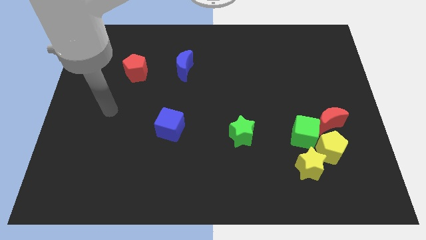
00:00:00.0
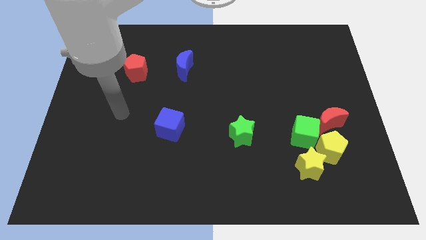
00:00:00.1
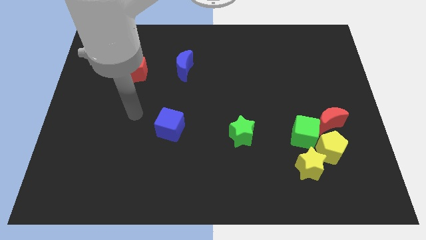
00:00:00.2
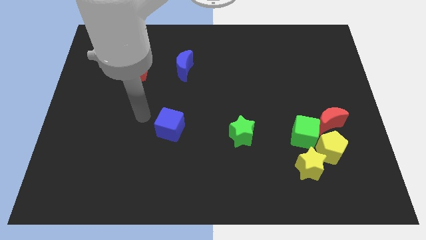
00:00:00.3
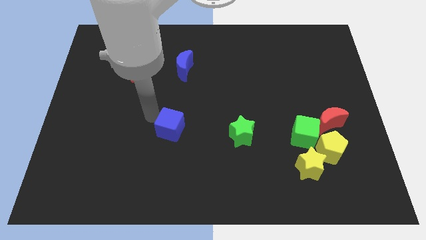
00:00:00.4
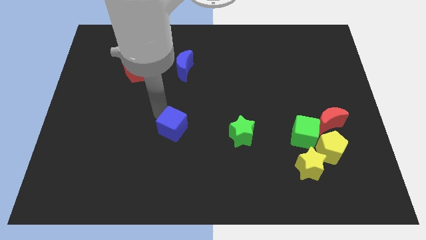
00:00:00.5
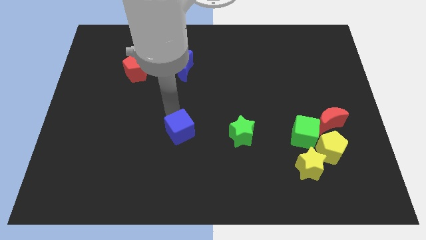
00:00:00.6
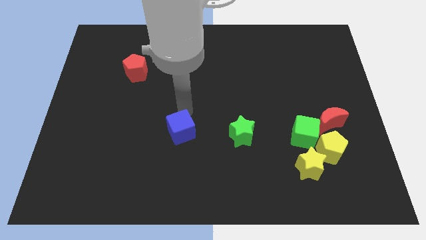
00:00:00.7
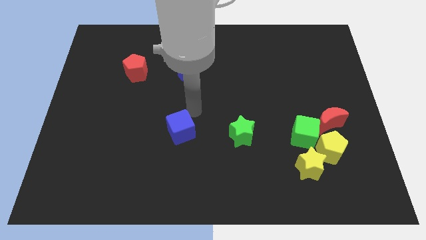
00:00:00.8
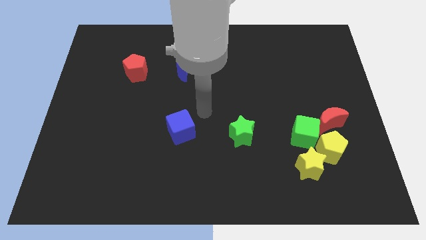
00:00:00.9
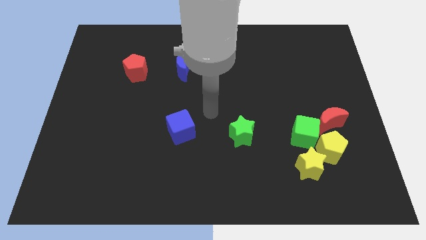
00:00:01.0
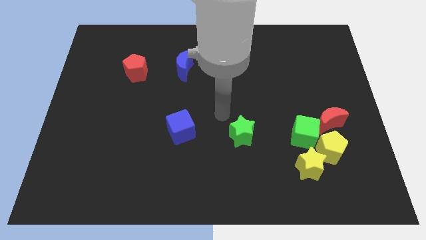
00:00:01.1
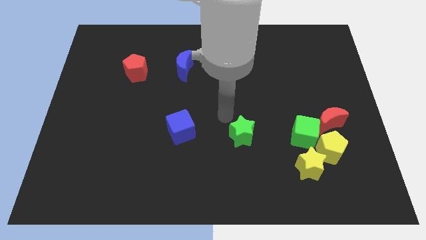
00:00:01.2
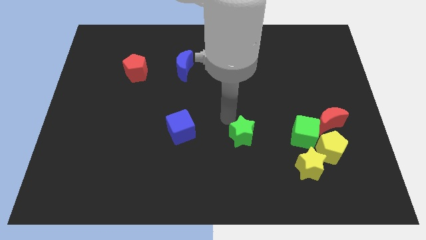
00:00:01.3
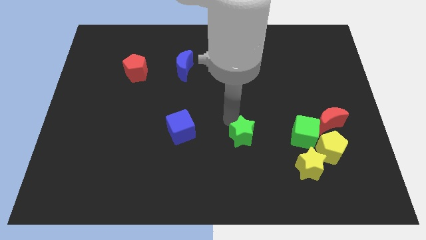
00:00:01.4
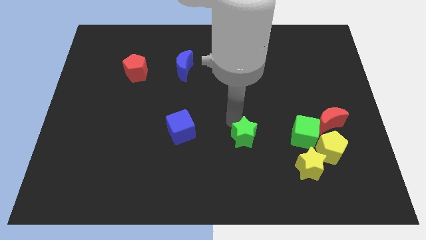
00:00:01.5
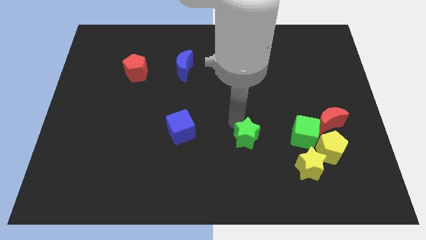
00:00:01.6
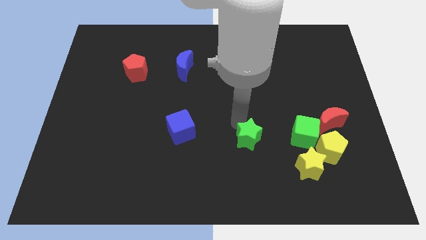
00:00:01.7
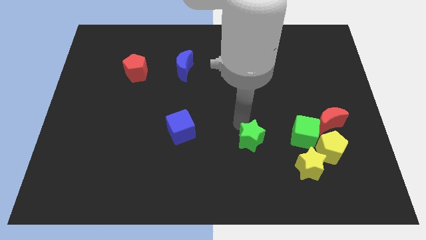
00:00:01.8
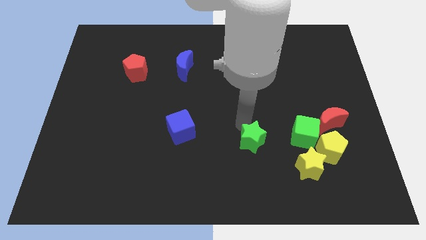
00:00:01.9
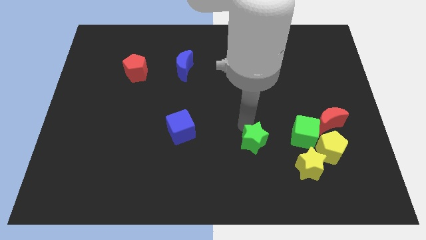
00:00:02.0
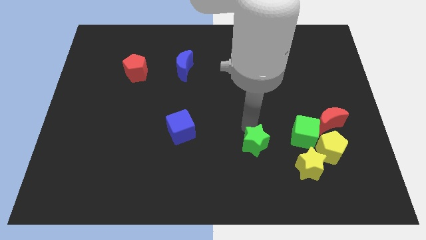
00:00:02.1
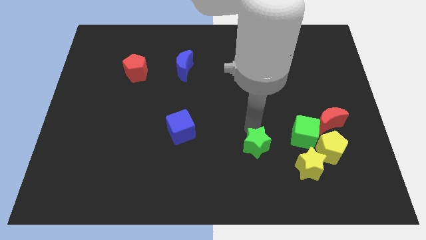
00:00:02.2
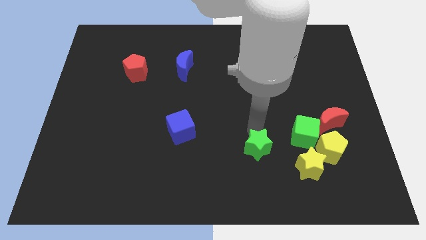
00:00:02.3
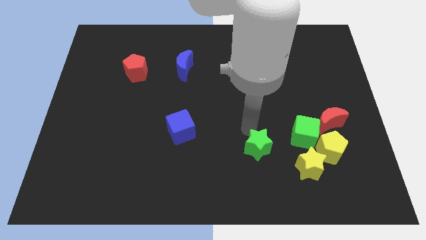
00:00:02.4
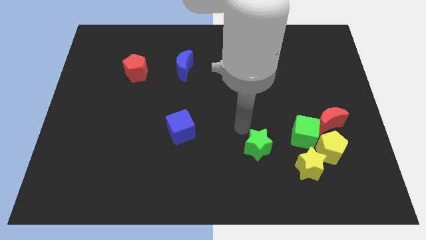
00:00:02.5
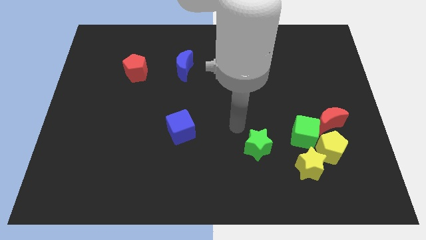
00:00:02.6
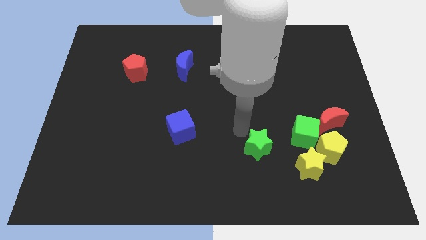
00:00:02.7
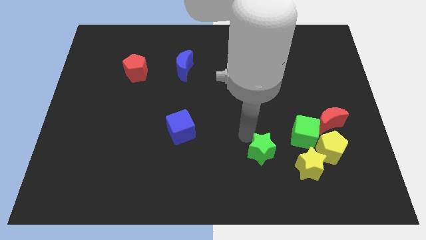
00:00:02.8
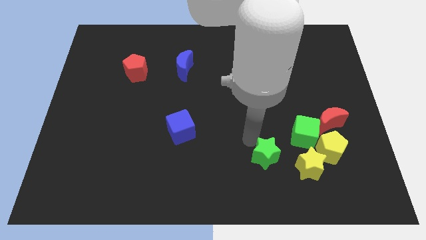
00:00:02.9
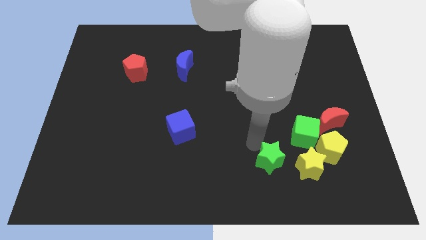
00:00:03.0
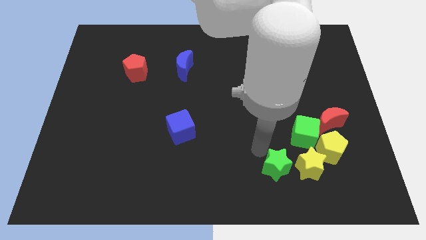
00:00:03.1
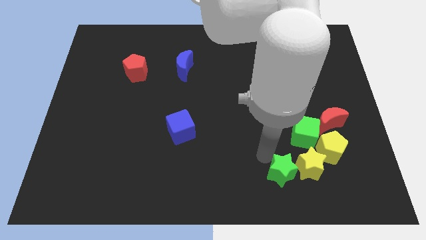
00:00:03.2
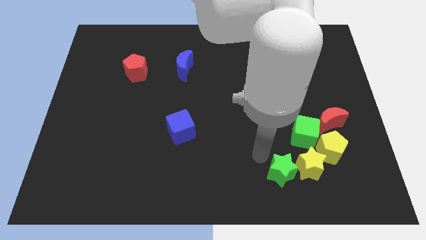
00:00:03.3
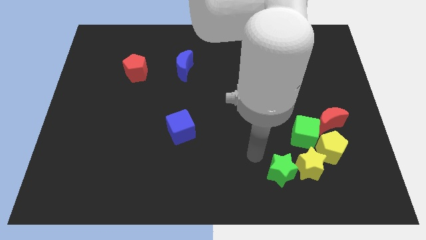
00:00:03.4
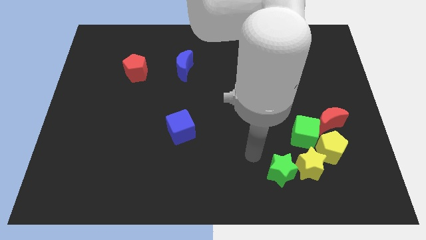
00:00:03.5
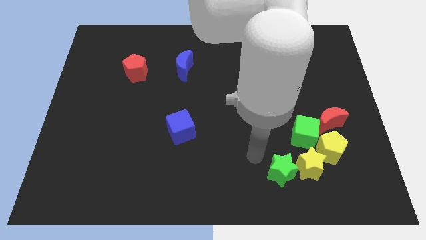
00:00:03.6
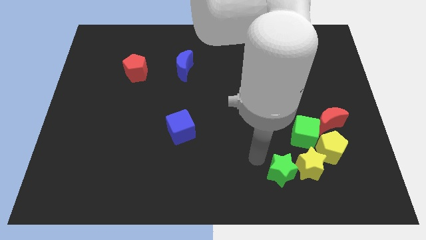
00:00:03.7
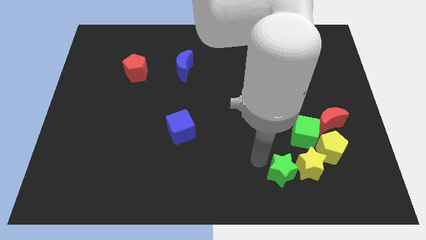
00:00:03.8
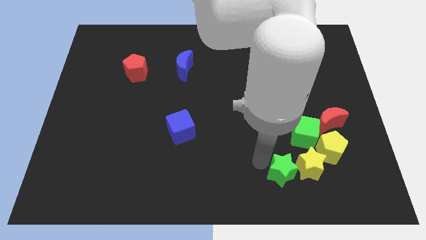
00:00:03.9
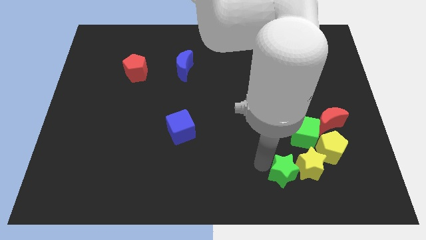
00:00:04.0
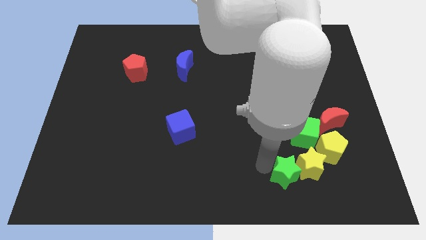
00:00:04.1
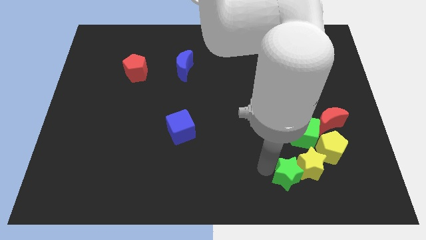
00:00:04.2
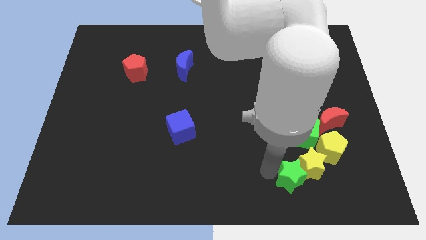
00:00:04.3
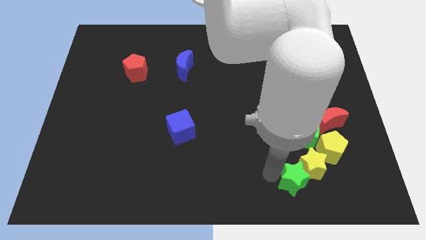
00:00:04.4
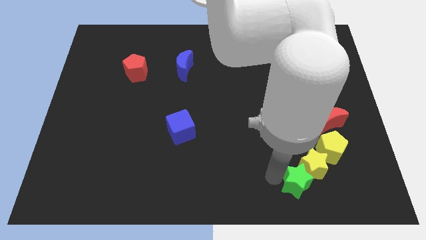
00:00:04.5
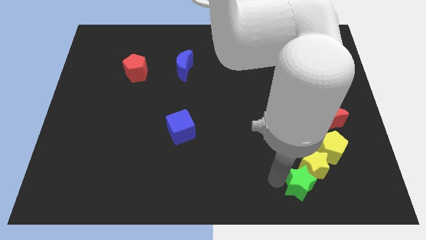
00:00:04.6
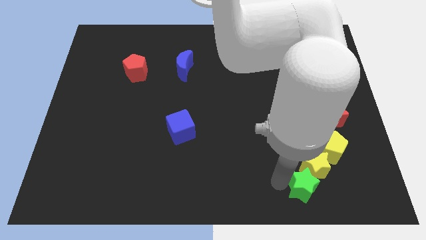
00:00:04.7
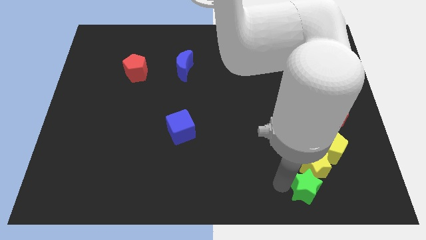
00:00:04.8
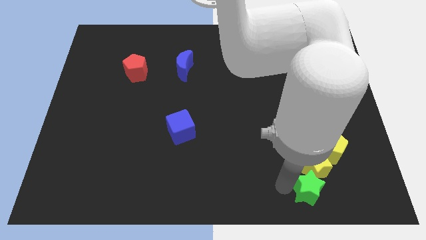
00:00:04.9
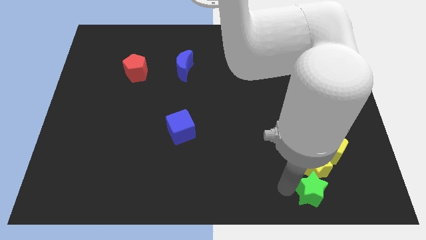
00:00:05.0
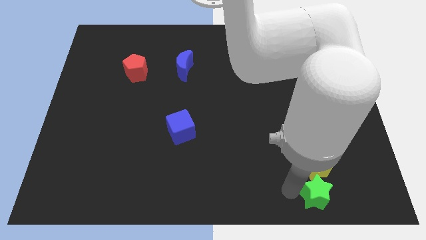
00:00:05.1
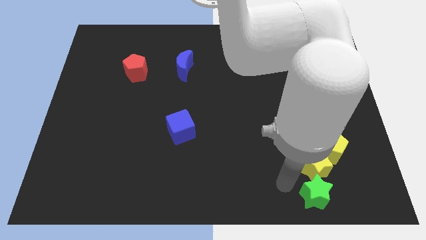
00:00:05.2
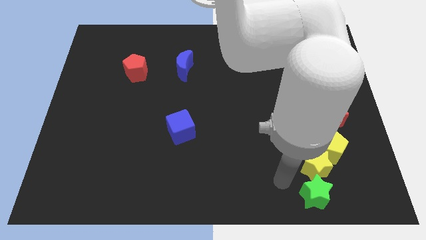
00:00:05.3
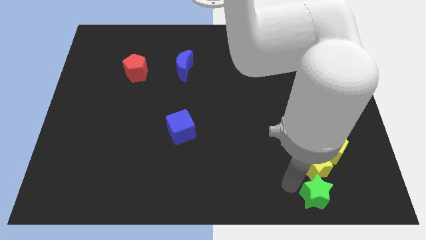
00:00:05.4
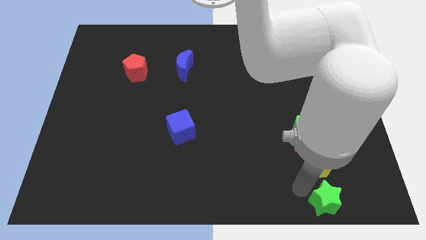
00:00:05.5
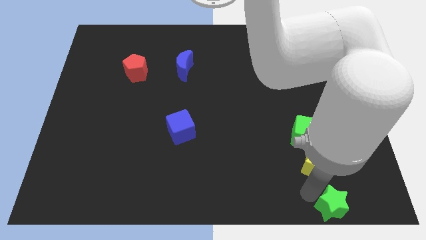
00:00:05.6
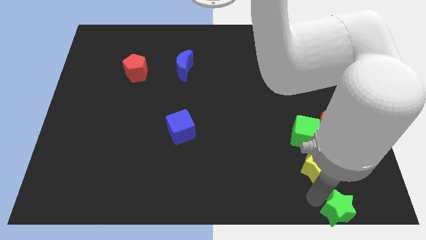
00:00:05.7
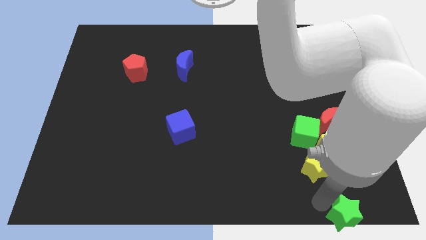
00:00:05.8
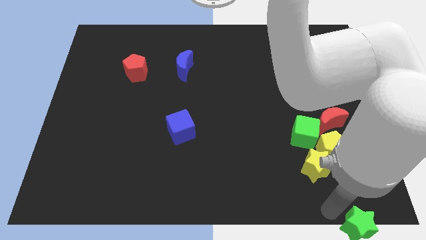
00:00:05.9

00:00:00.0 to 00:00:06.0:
push the green star to the bottom right

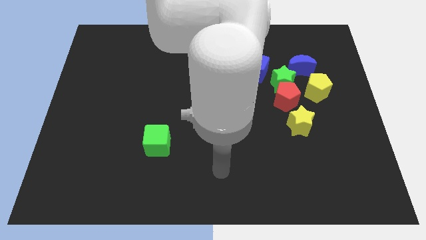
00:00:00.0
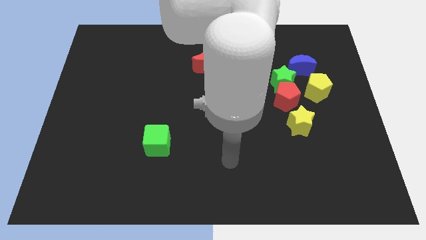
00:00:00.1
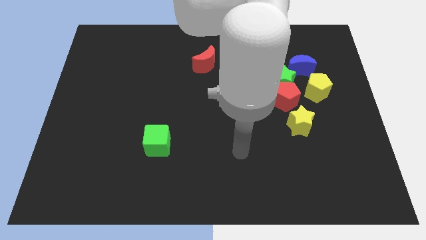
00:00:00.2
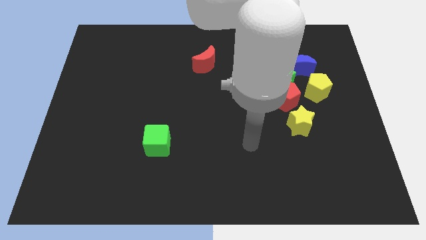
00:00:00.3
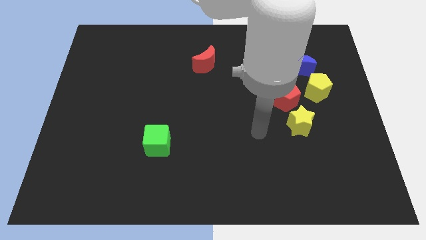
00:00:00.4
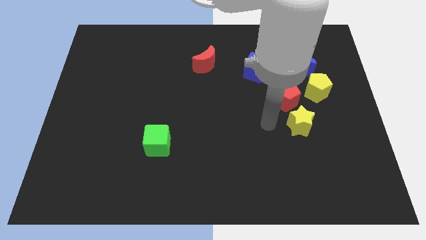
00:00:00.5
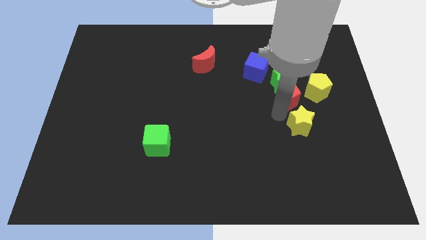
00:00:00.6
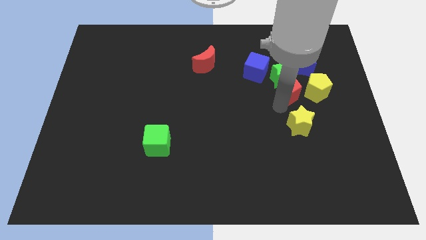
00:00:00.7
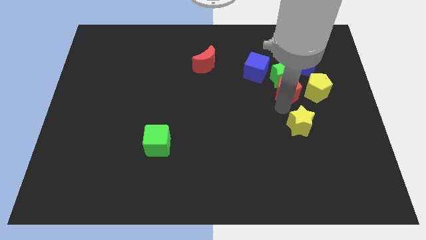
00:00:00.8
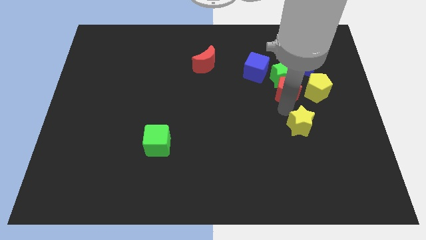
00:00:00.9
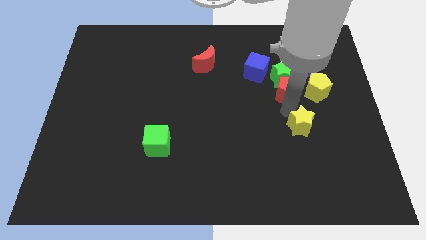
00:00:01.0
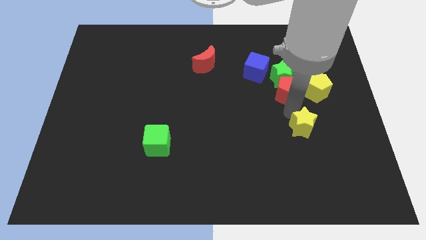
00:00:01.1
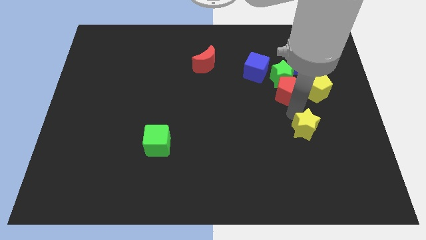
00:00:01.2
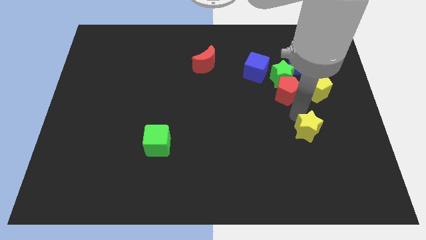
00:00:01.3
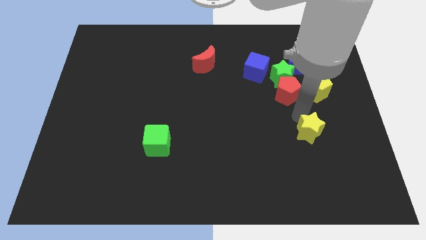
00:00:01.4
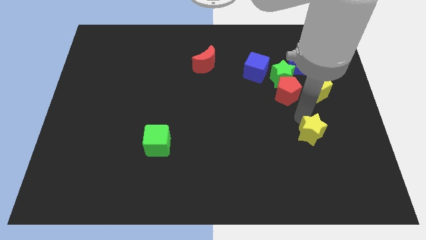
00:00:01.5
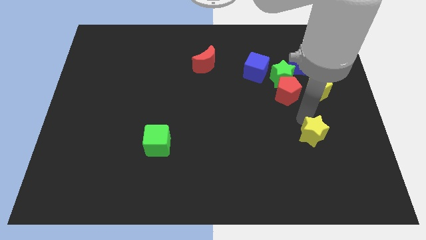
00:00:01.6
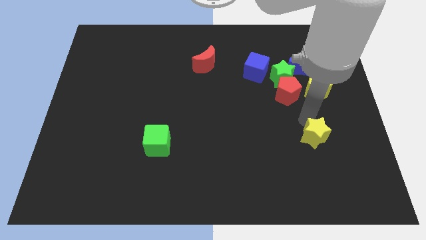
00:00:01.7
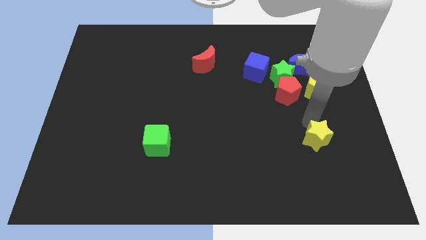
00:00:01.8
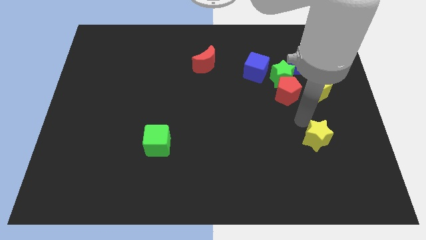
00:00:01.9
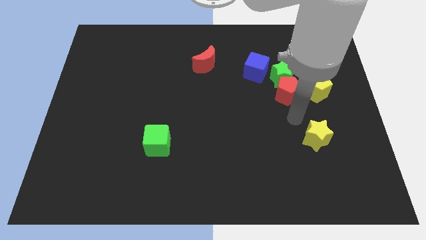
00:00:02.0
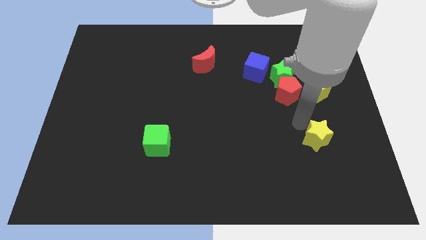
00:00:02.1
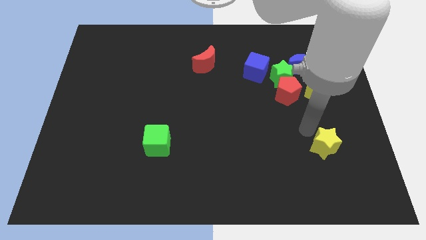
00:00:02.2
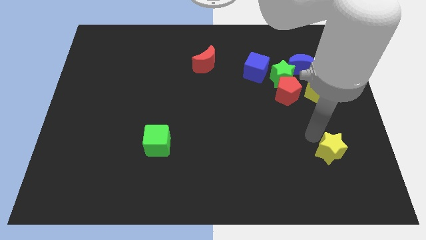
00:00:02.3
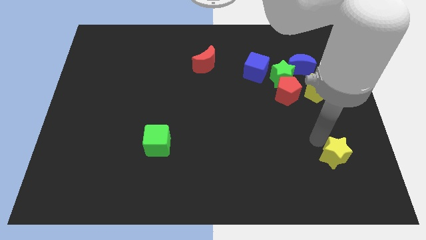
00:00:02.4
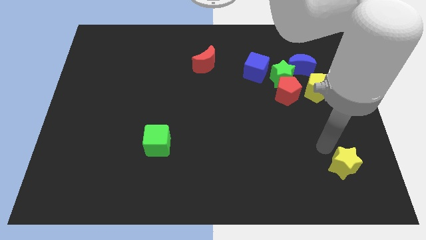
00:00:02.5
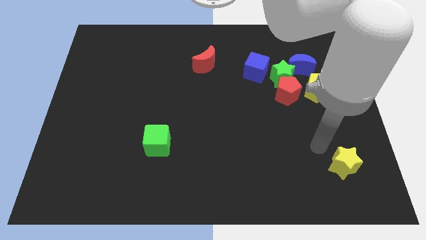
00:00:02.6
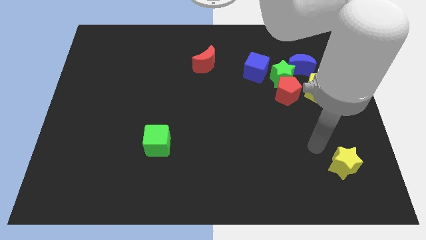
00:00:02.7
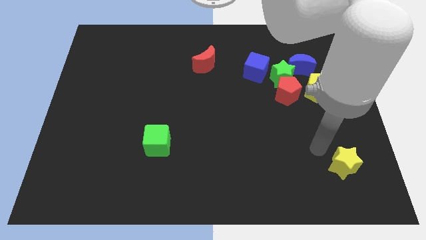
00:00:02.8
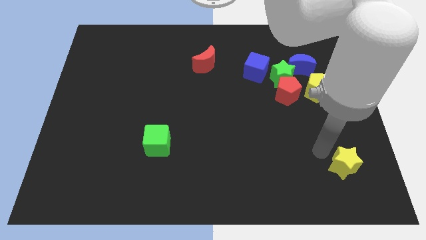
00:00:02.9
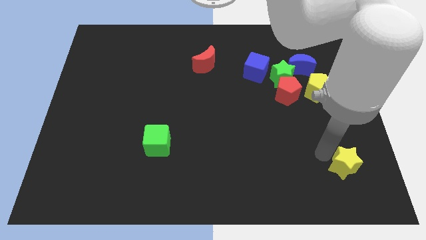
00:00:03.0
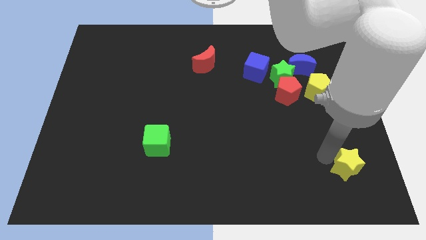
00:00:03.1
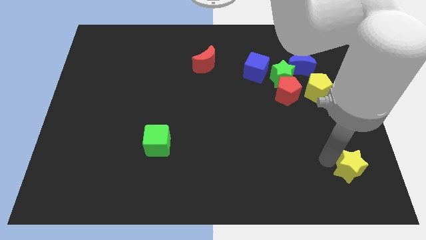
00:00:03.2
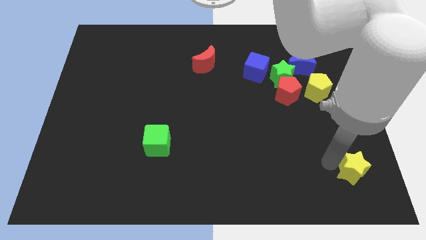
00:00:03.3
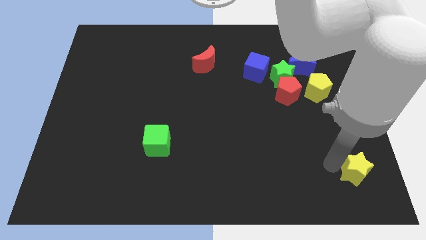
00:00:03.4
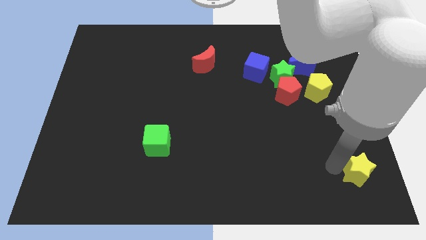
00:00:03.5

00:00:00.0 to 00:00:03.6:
put the yellow star to the lower right corner
